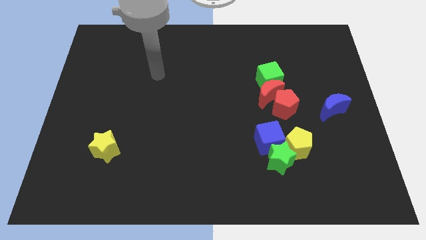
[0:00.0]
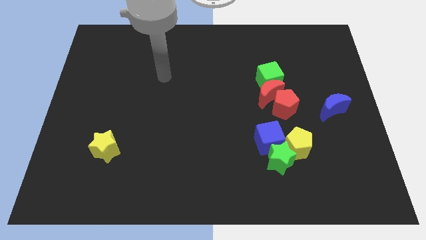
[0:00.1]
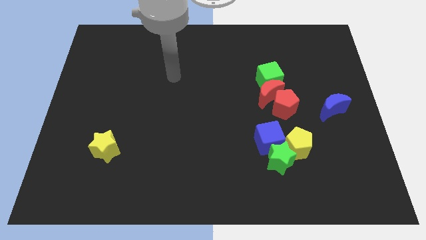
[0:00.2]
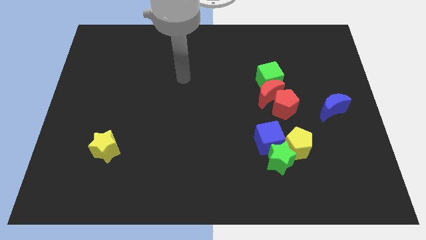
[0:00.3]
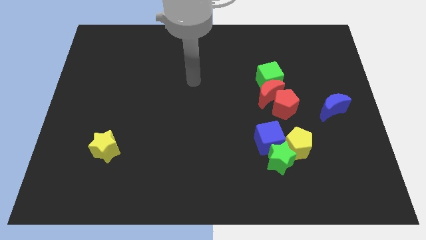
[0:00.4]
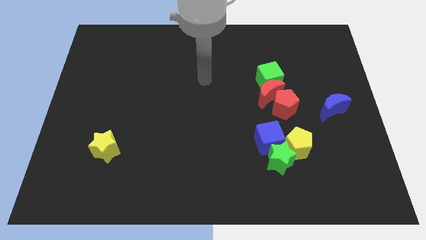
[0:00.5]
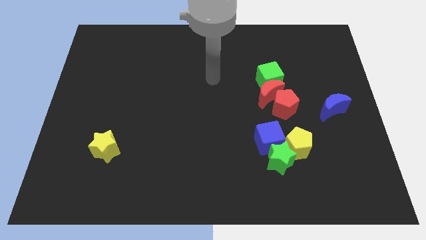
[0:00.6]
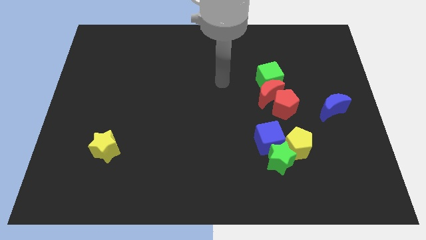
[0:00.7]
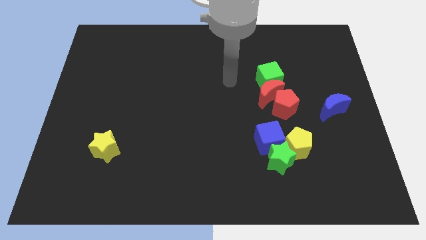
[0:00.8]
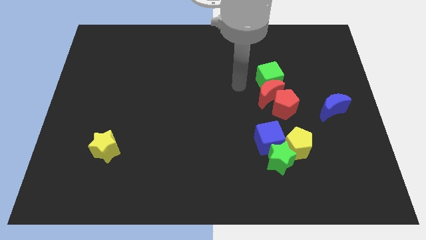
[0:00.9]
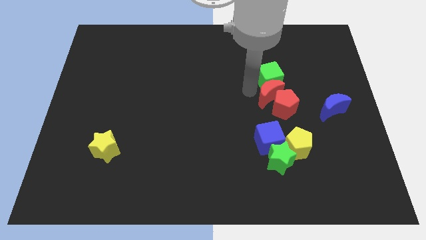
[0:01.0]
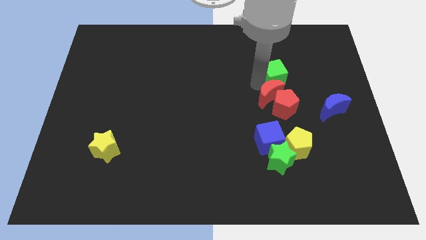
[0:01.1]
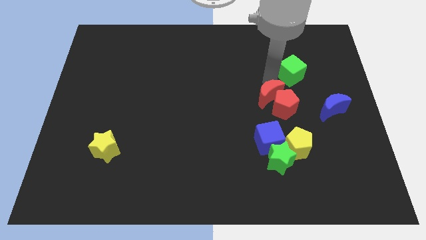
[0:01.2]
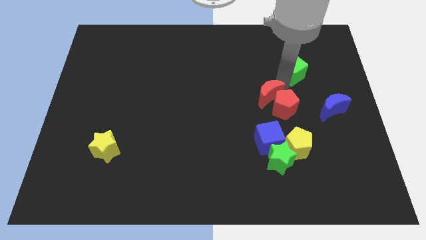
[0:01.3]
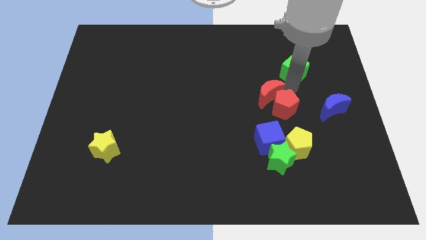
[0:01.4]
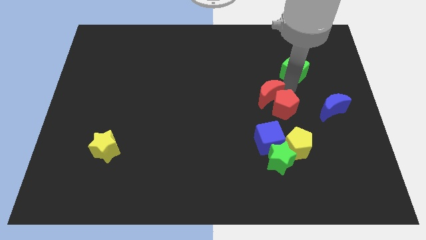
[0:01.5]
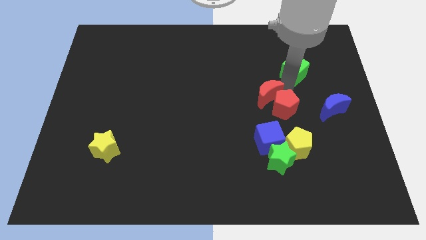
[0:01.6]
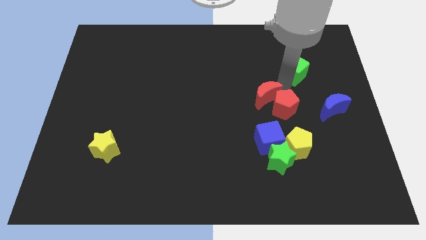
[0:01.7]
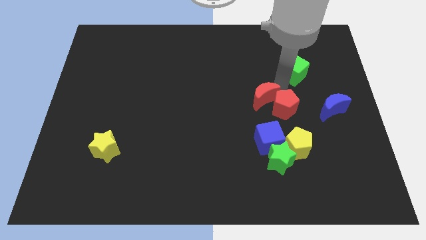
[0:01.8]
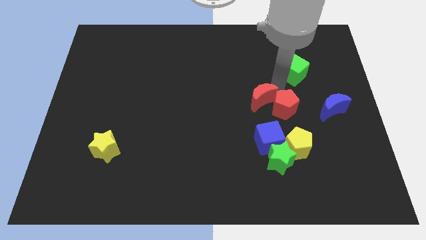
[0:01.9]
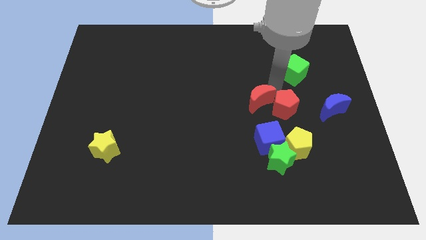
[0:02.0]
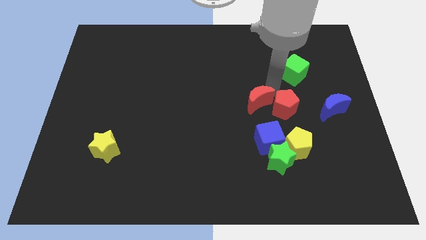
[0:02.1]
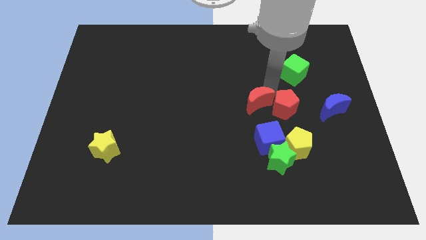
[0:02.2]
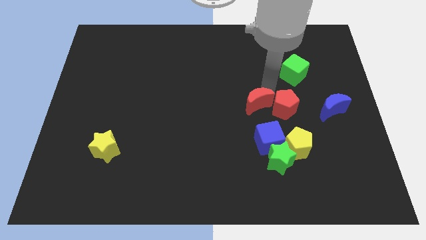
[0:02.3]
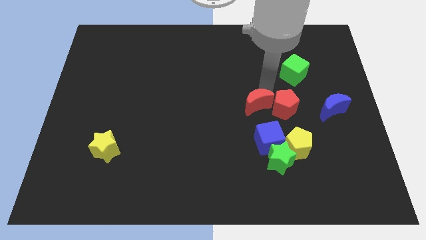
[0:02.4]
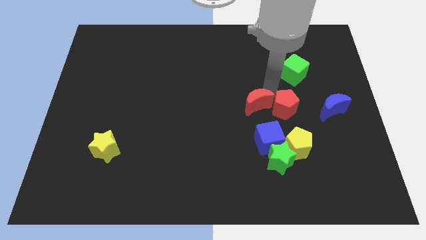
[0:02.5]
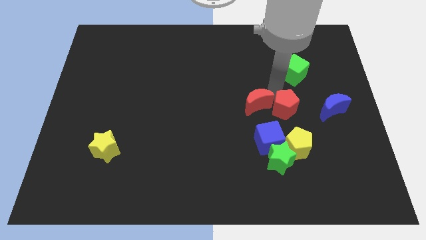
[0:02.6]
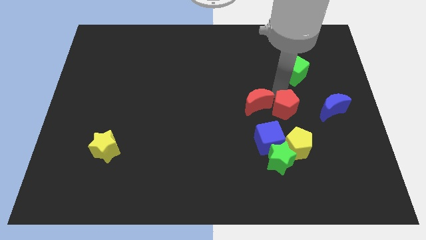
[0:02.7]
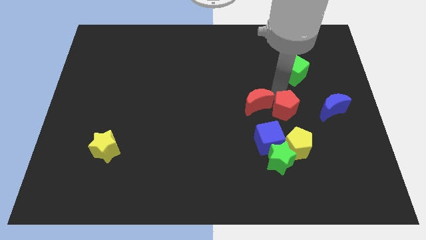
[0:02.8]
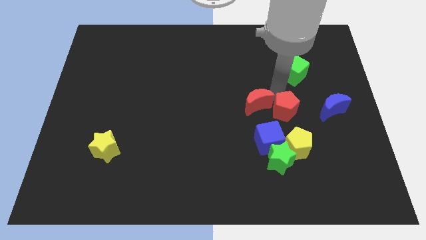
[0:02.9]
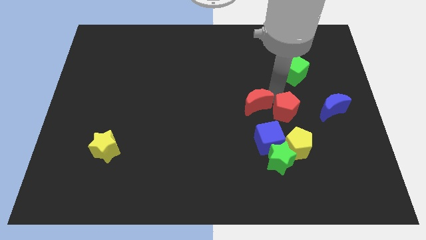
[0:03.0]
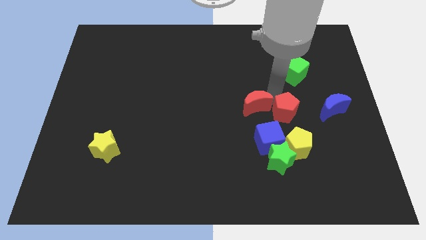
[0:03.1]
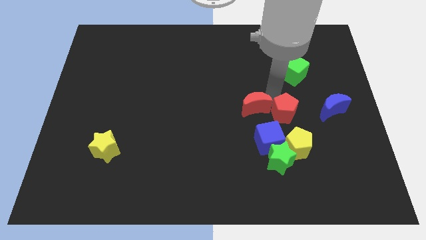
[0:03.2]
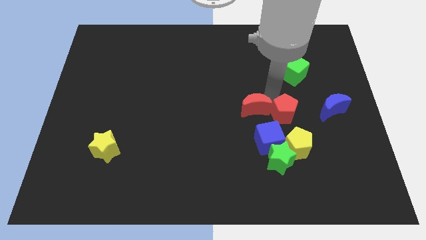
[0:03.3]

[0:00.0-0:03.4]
move the red moon away from the red pentagon and green cube

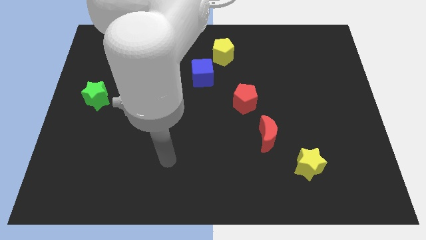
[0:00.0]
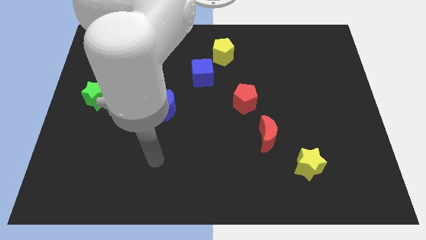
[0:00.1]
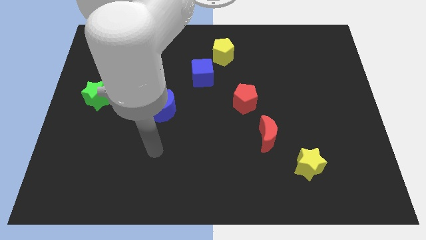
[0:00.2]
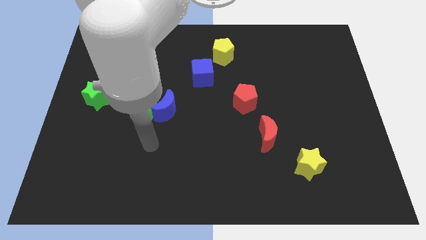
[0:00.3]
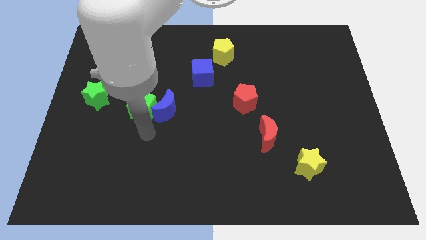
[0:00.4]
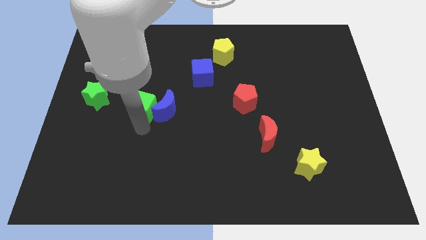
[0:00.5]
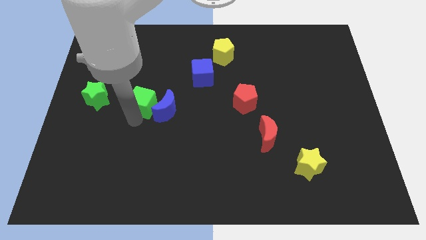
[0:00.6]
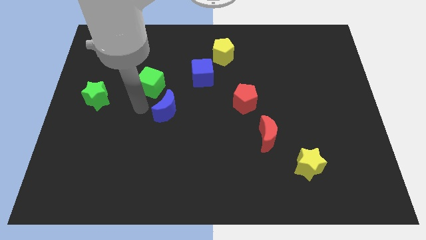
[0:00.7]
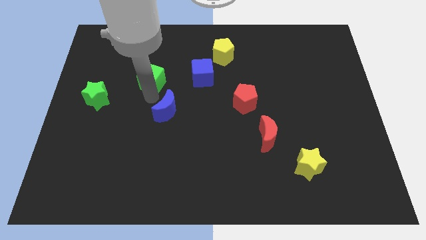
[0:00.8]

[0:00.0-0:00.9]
pull the blue moon apart from the green cube

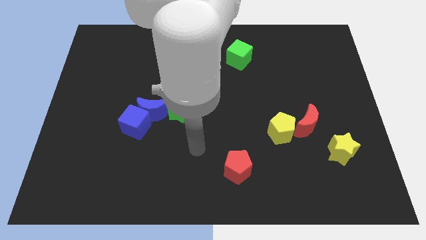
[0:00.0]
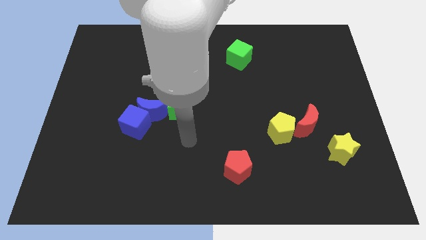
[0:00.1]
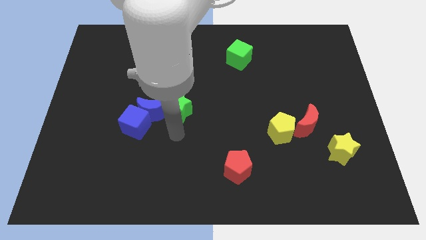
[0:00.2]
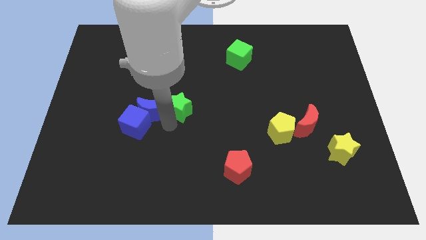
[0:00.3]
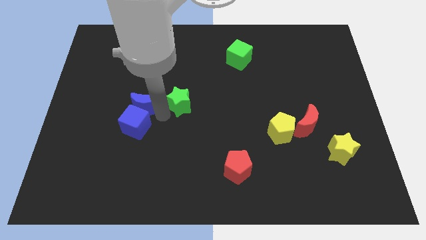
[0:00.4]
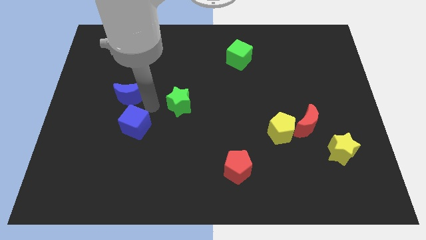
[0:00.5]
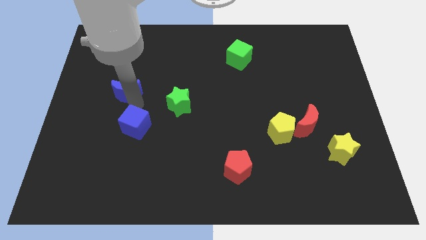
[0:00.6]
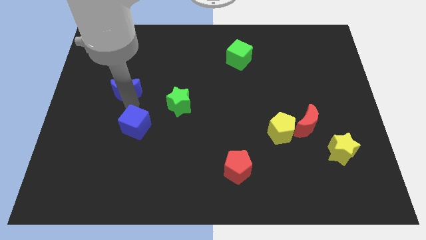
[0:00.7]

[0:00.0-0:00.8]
move the blue cube away from the blue moon

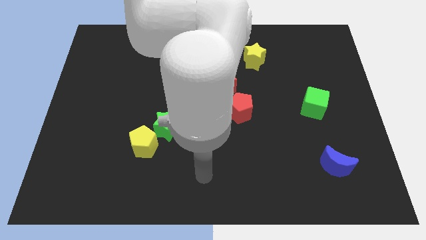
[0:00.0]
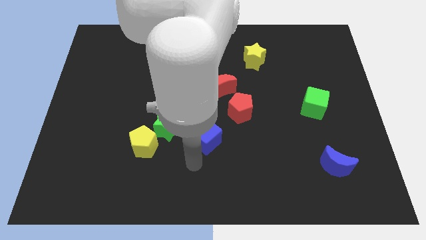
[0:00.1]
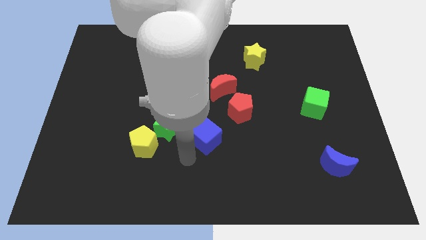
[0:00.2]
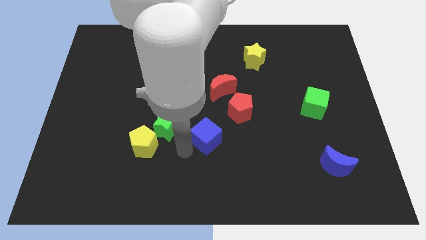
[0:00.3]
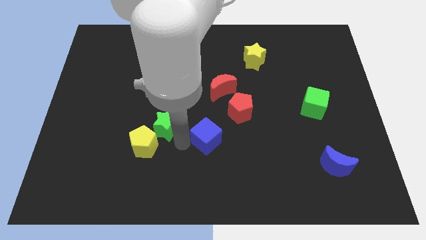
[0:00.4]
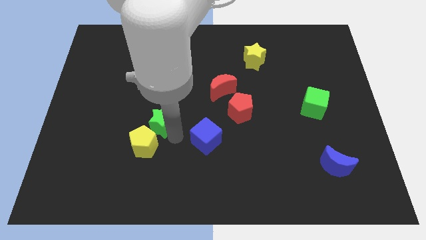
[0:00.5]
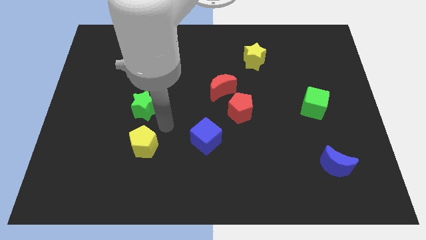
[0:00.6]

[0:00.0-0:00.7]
move the yellow pentagon away from the green star

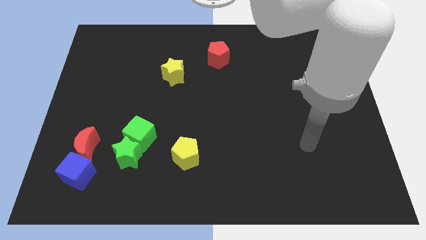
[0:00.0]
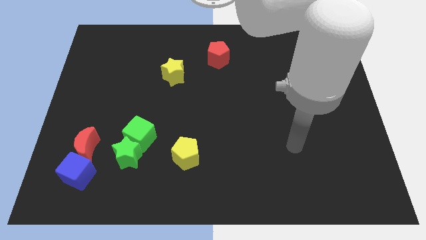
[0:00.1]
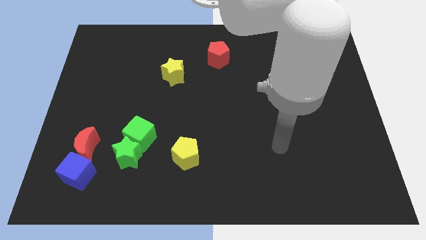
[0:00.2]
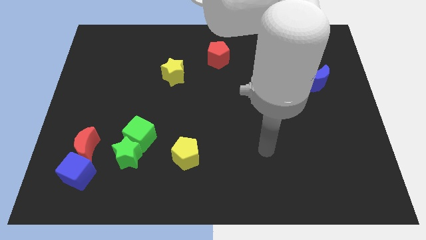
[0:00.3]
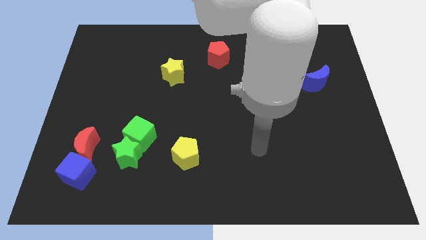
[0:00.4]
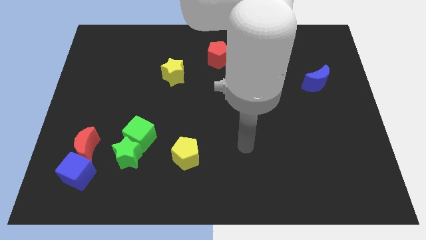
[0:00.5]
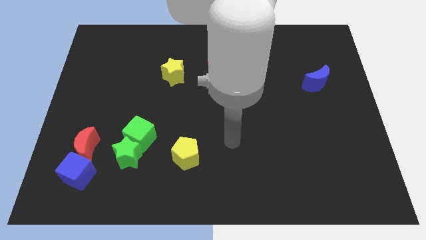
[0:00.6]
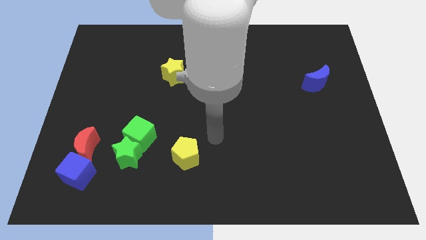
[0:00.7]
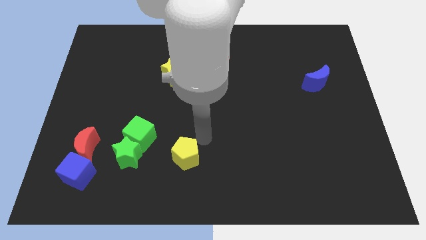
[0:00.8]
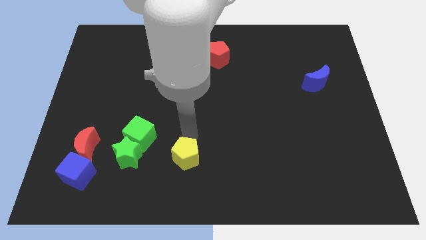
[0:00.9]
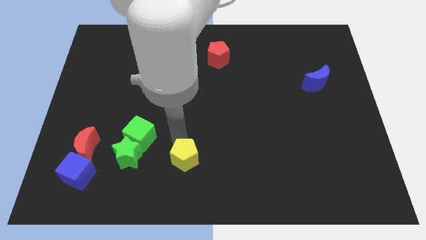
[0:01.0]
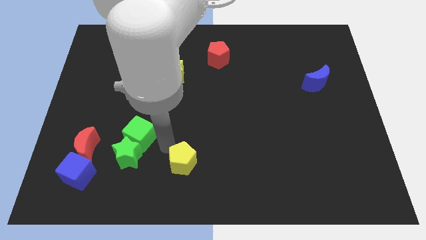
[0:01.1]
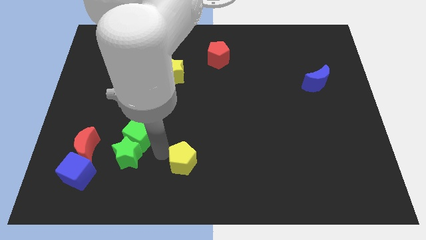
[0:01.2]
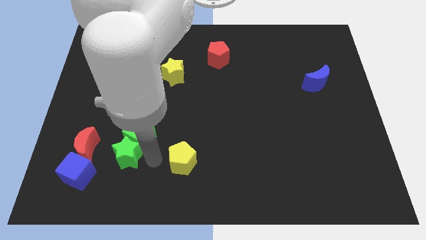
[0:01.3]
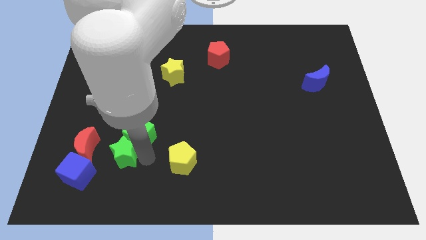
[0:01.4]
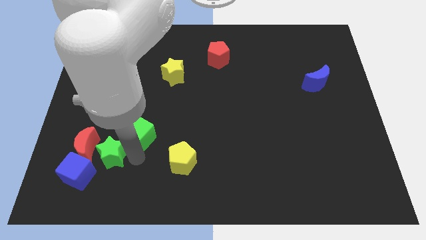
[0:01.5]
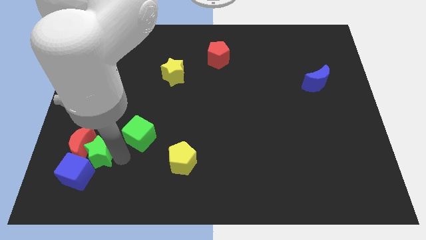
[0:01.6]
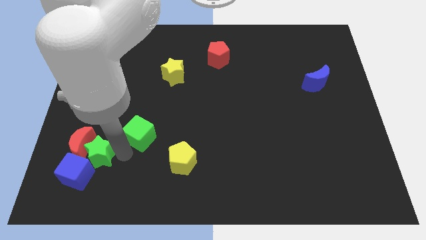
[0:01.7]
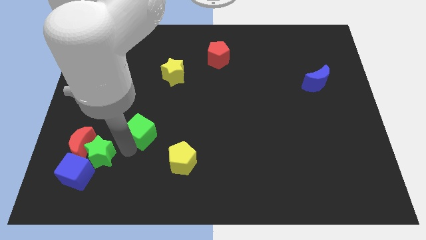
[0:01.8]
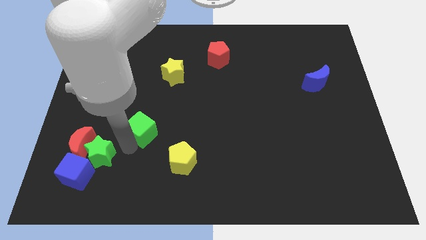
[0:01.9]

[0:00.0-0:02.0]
pull the green cube apart from the green star

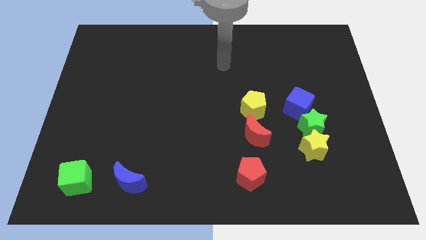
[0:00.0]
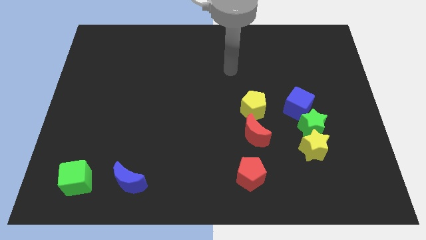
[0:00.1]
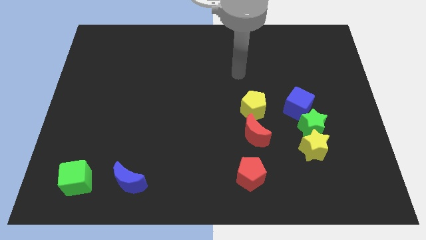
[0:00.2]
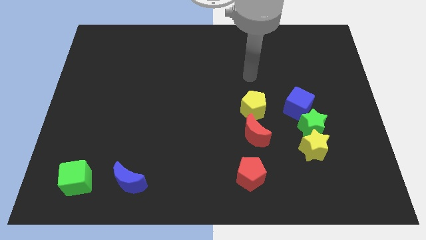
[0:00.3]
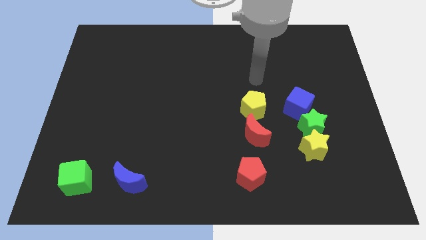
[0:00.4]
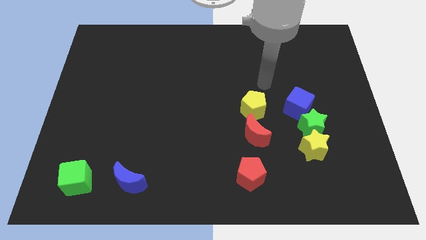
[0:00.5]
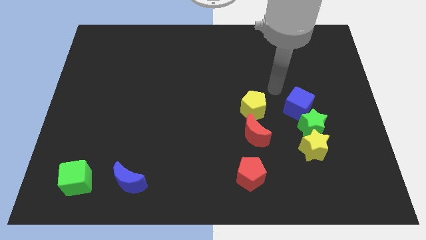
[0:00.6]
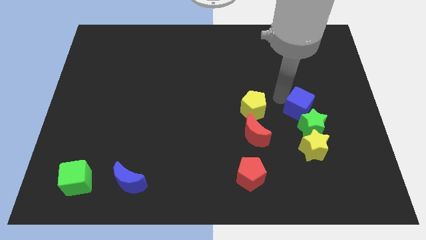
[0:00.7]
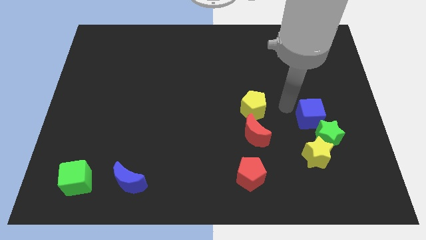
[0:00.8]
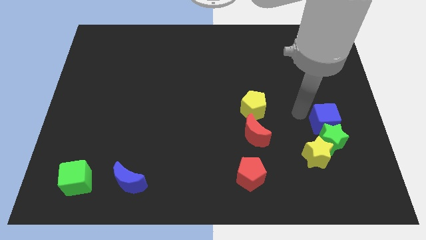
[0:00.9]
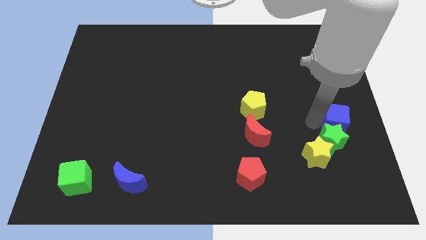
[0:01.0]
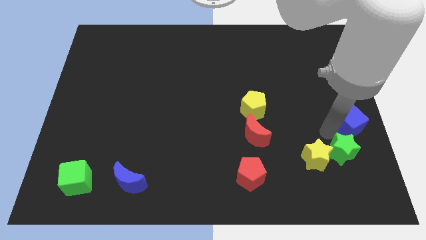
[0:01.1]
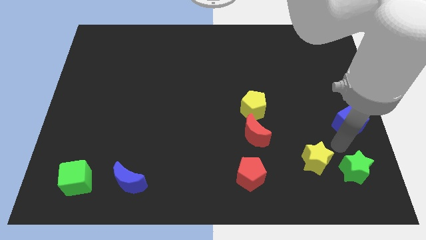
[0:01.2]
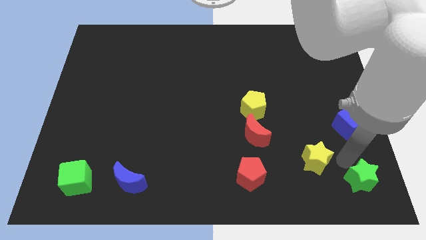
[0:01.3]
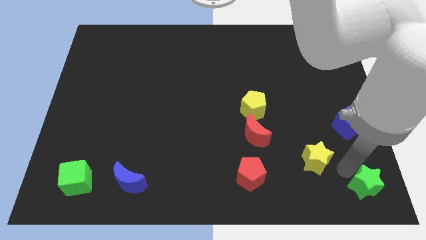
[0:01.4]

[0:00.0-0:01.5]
separate the yellow star from the green star
